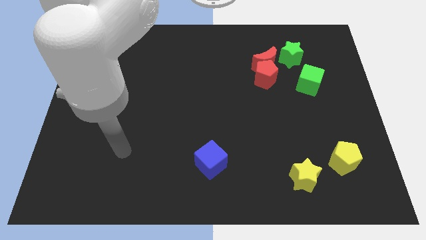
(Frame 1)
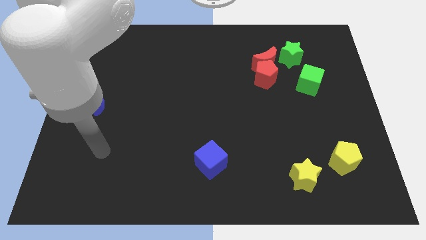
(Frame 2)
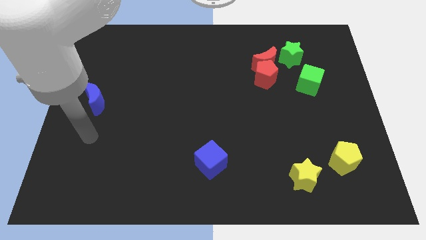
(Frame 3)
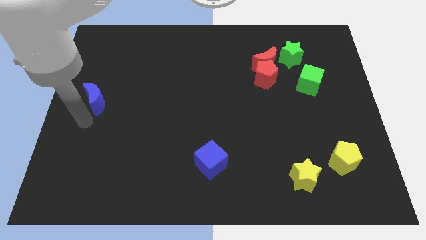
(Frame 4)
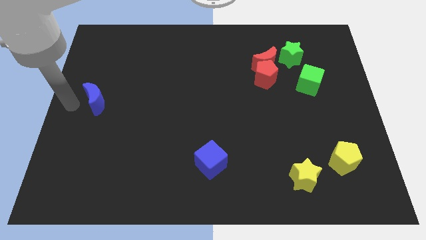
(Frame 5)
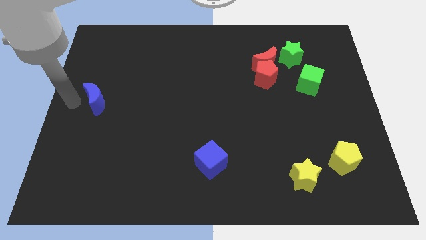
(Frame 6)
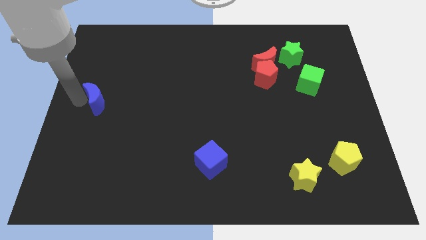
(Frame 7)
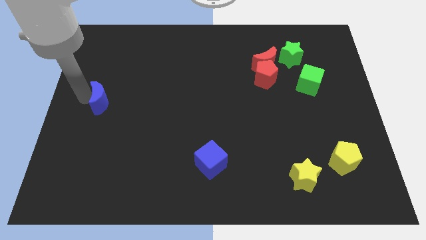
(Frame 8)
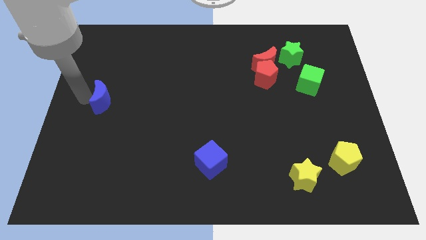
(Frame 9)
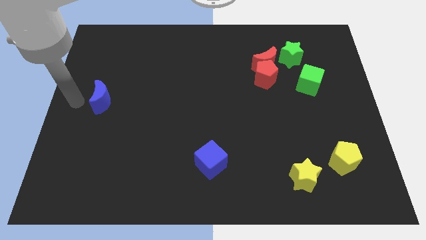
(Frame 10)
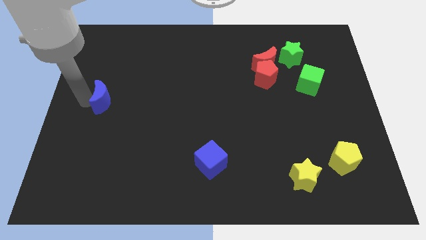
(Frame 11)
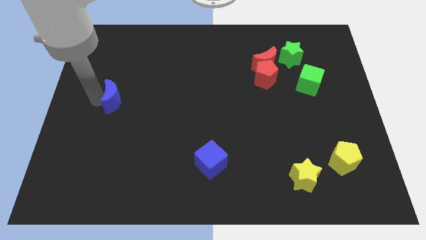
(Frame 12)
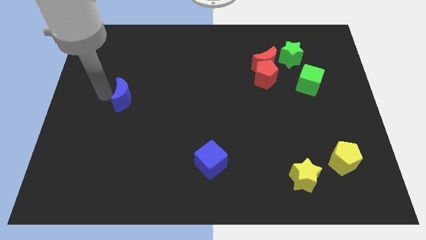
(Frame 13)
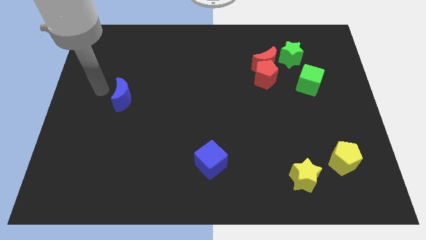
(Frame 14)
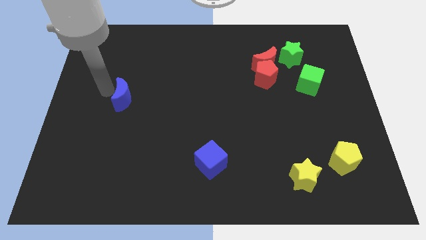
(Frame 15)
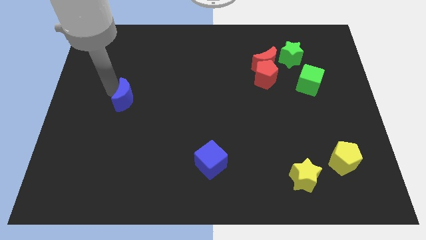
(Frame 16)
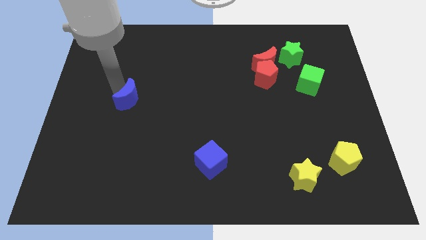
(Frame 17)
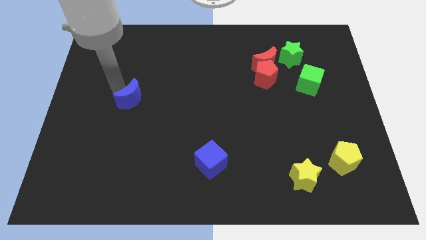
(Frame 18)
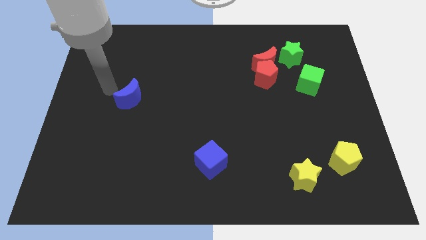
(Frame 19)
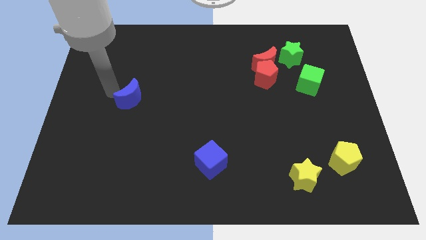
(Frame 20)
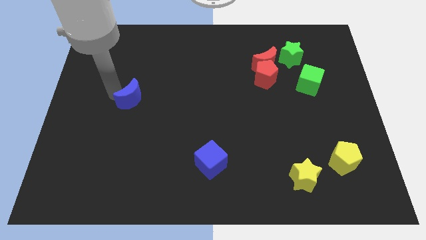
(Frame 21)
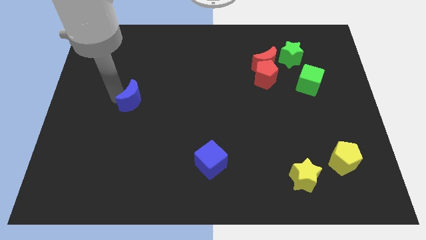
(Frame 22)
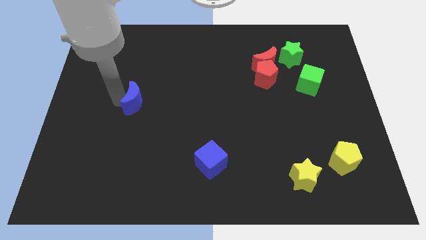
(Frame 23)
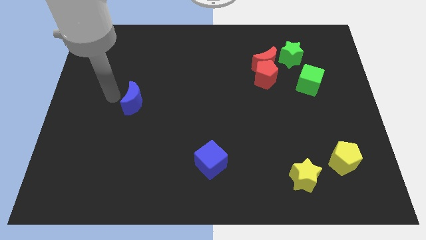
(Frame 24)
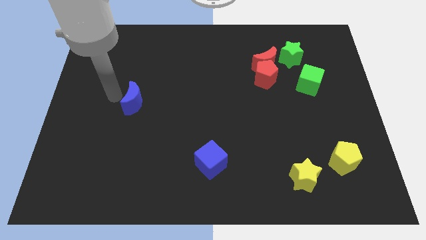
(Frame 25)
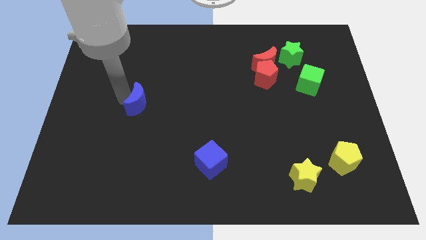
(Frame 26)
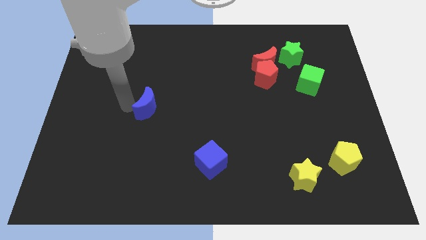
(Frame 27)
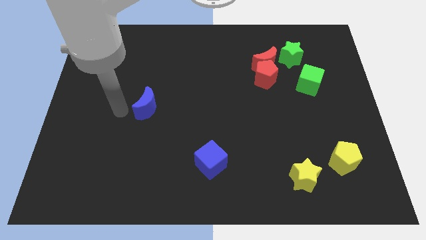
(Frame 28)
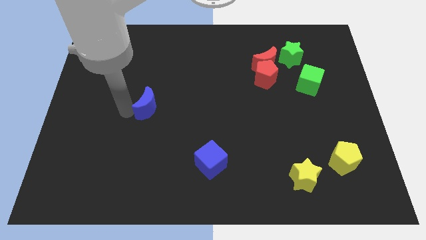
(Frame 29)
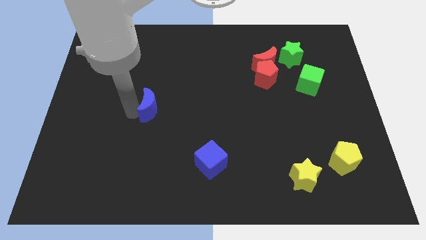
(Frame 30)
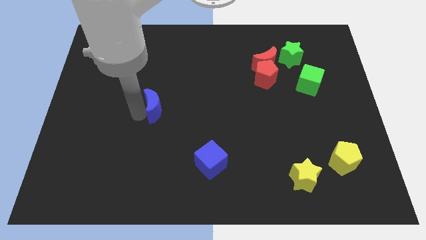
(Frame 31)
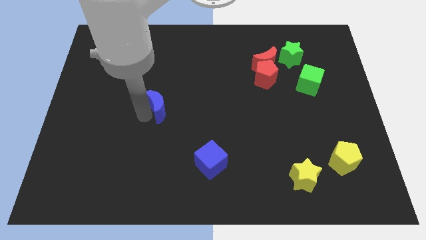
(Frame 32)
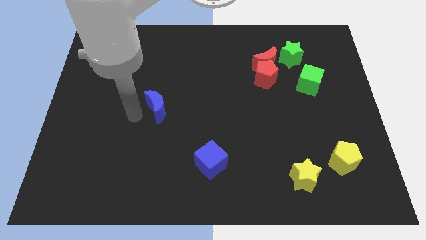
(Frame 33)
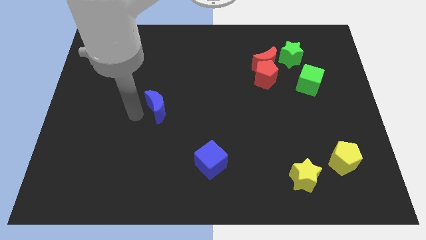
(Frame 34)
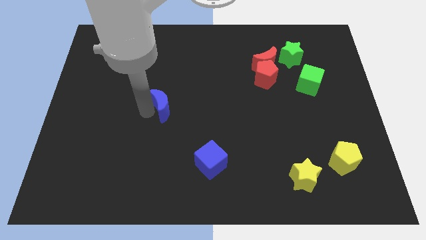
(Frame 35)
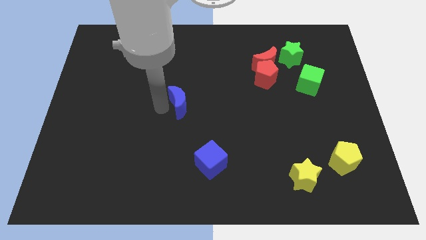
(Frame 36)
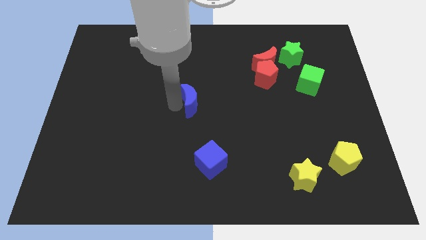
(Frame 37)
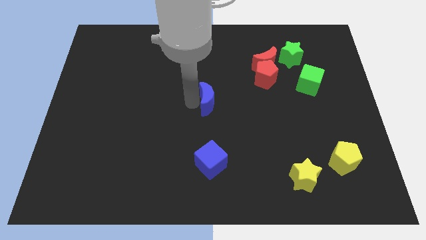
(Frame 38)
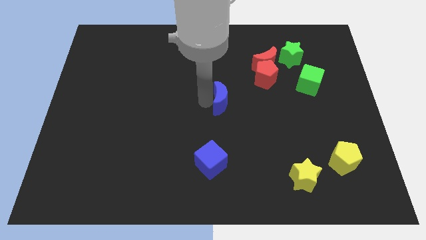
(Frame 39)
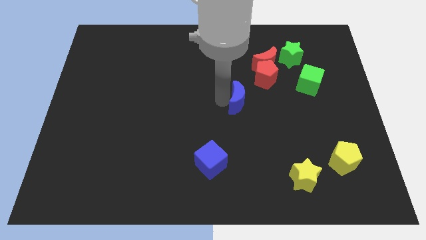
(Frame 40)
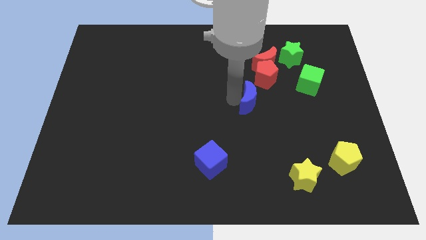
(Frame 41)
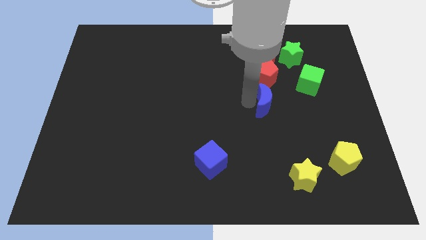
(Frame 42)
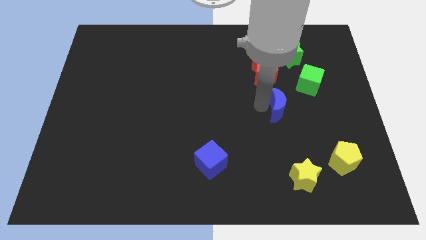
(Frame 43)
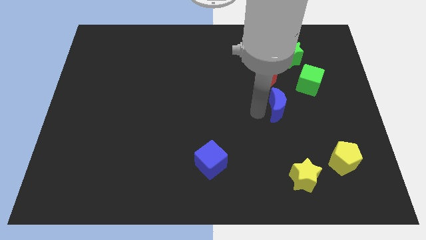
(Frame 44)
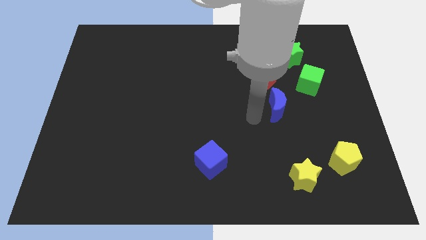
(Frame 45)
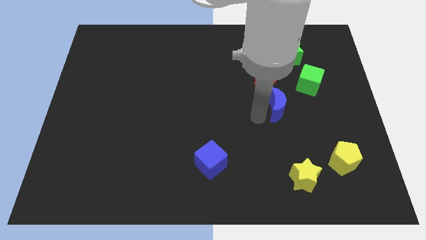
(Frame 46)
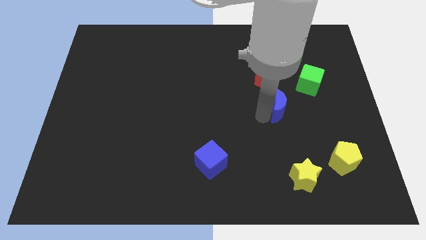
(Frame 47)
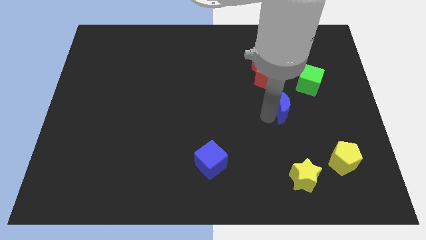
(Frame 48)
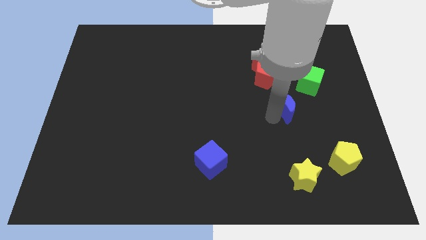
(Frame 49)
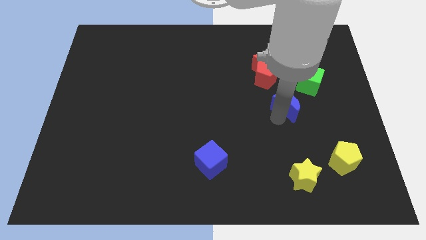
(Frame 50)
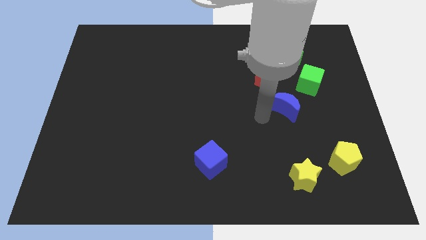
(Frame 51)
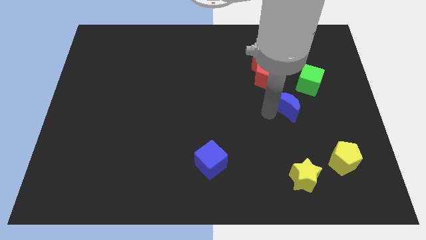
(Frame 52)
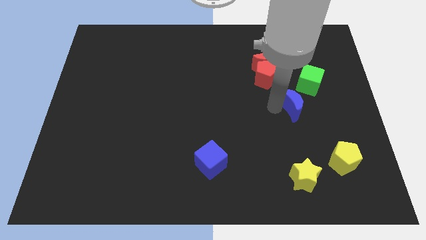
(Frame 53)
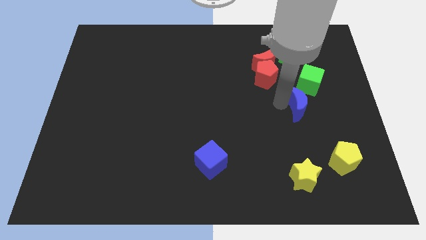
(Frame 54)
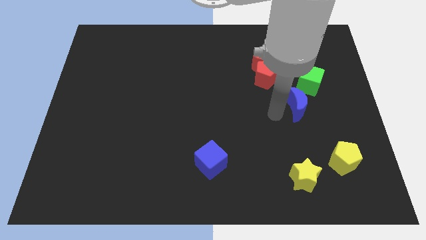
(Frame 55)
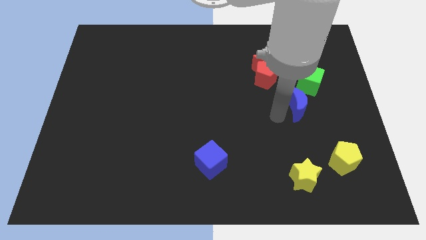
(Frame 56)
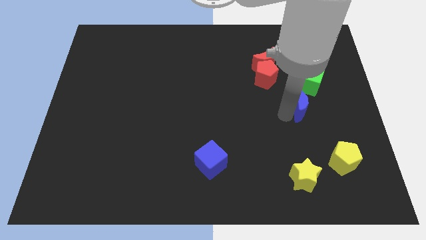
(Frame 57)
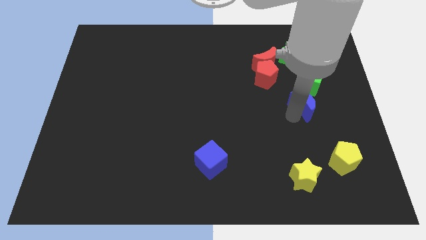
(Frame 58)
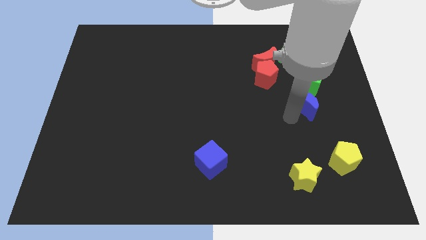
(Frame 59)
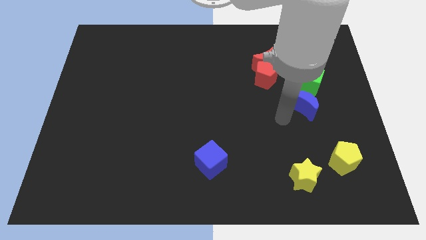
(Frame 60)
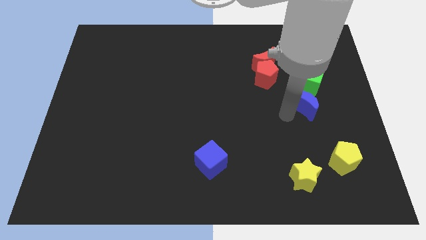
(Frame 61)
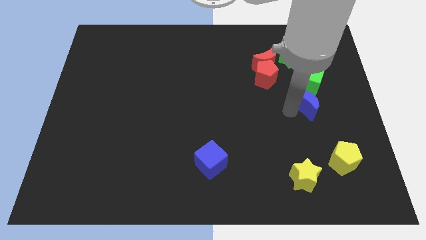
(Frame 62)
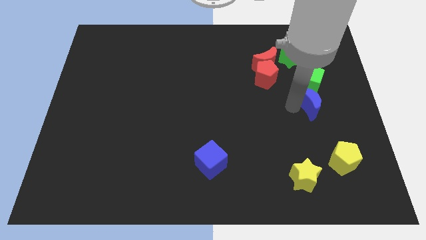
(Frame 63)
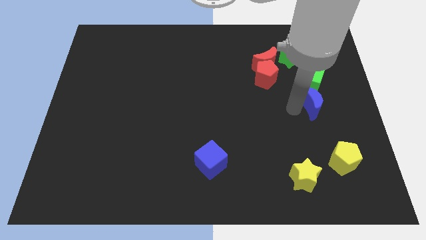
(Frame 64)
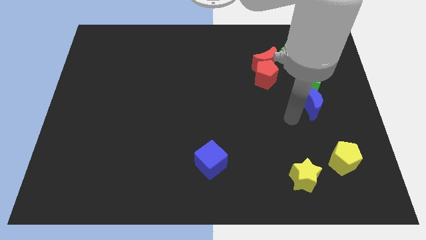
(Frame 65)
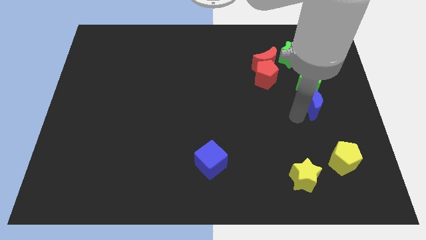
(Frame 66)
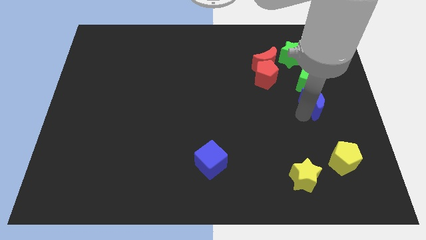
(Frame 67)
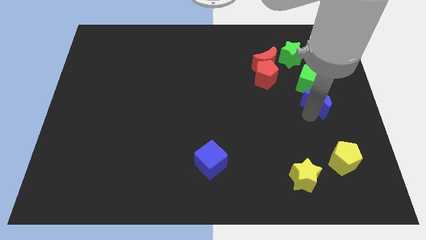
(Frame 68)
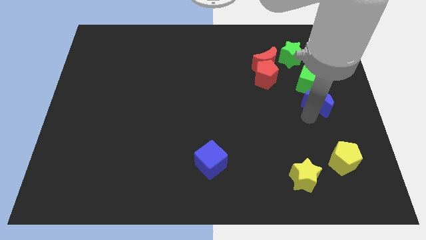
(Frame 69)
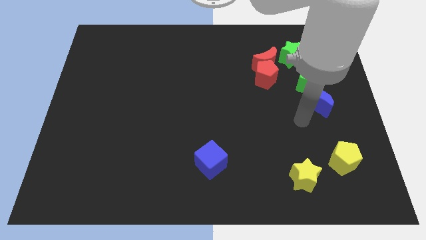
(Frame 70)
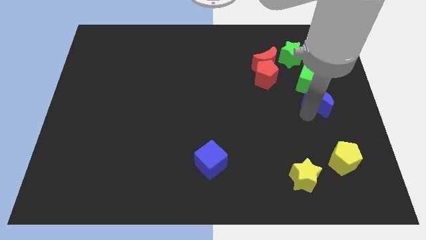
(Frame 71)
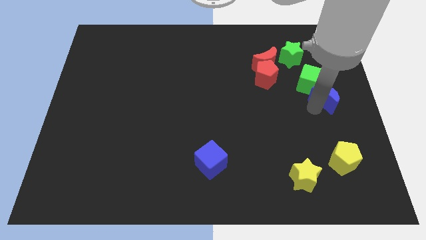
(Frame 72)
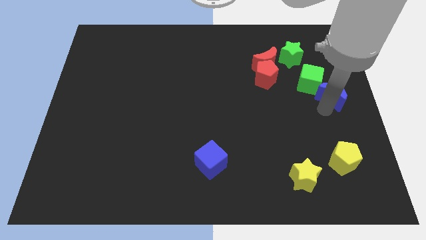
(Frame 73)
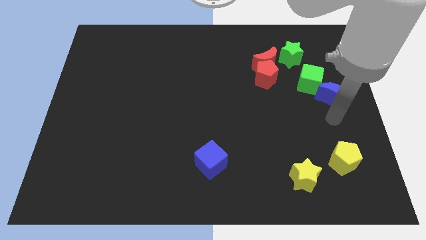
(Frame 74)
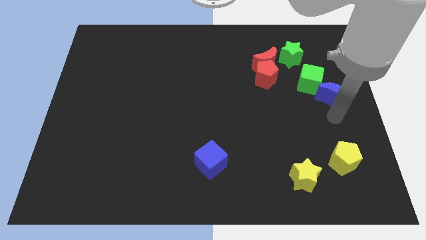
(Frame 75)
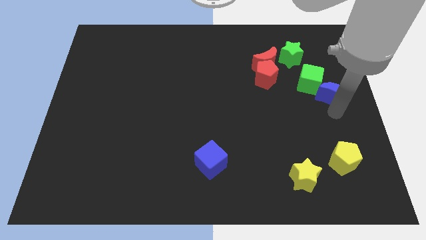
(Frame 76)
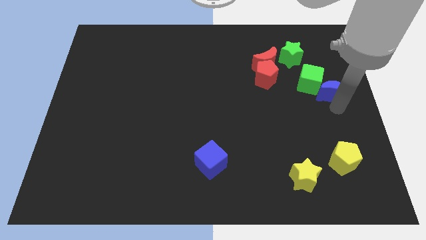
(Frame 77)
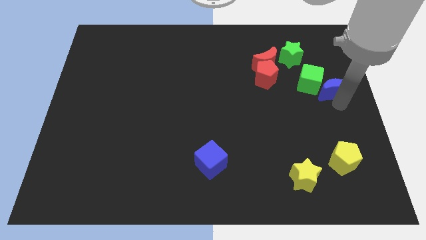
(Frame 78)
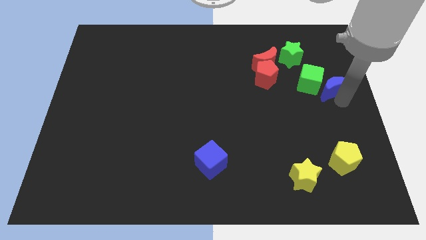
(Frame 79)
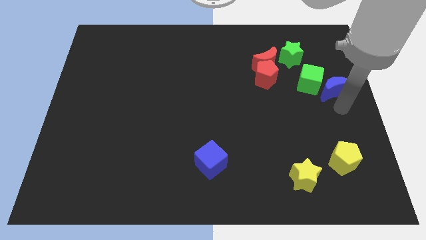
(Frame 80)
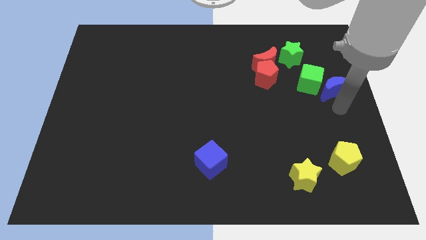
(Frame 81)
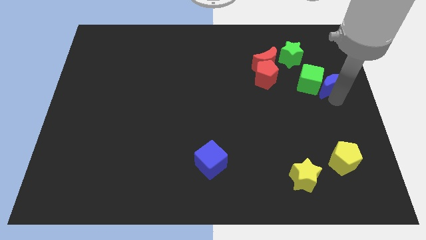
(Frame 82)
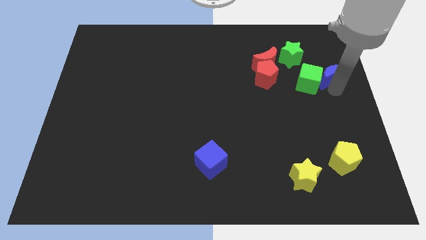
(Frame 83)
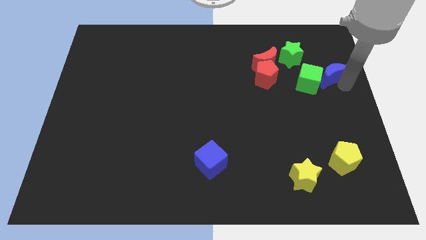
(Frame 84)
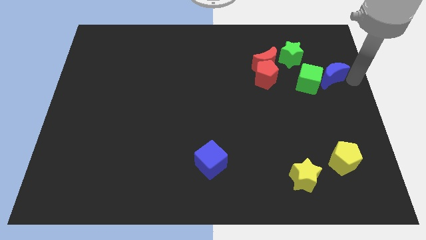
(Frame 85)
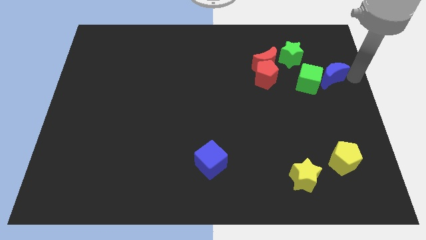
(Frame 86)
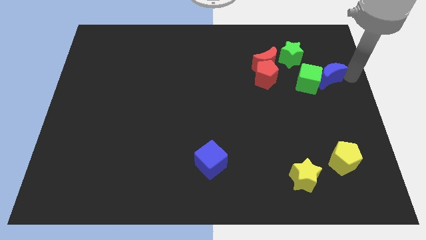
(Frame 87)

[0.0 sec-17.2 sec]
put the blue moon to the right side of the red pentagon
